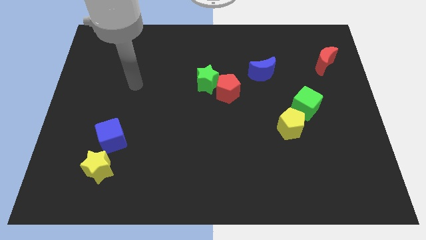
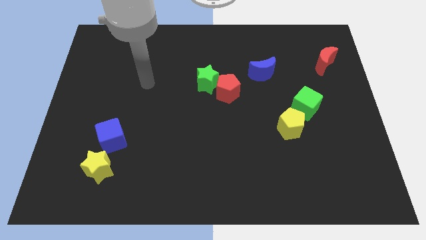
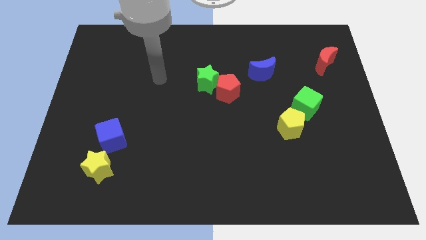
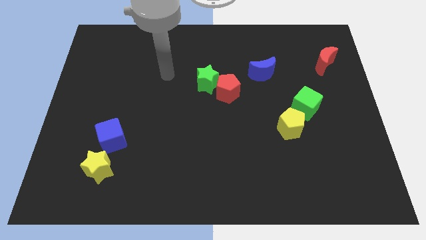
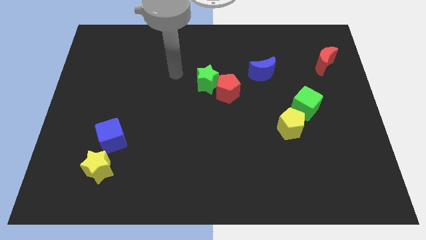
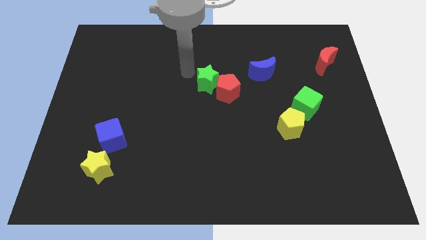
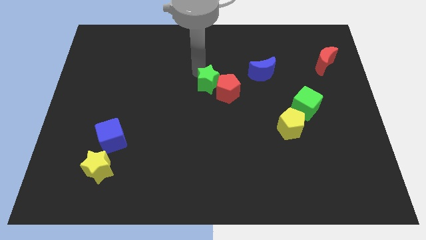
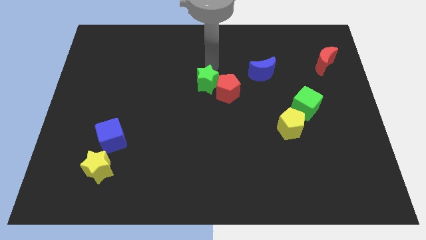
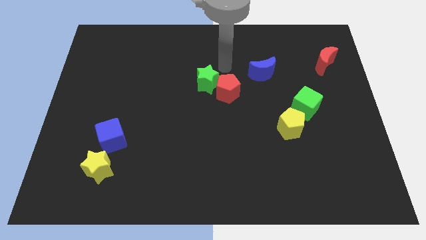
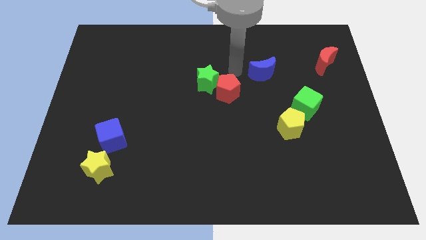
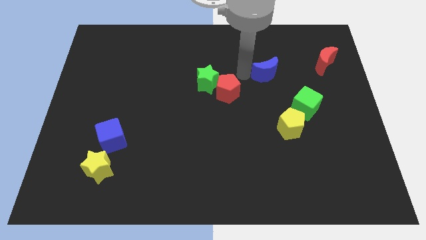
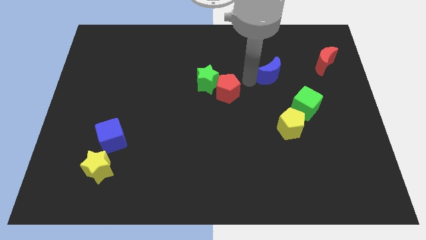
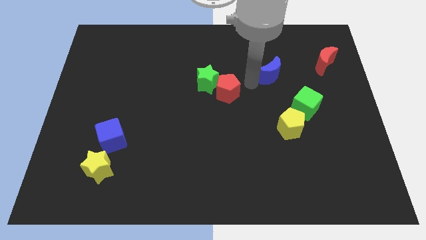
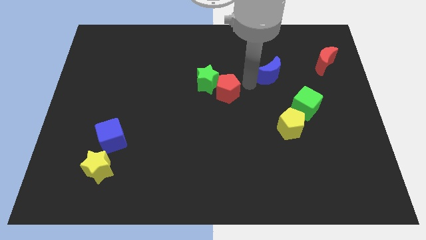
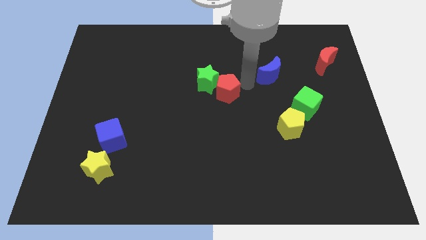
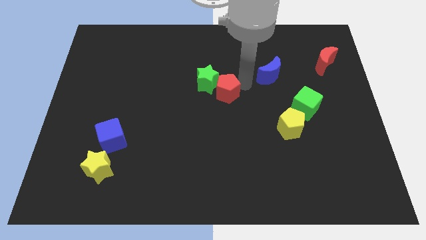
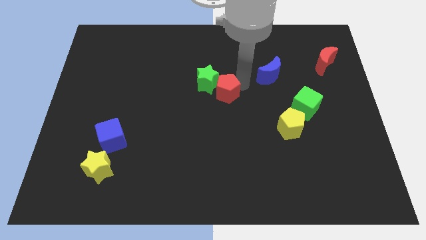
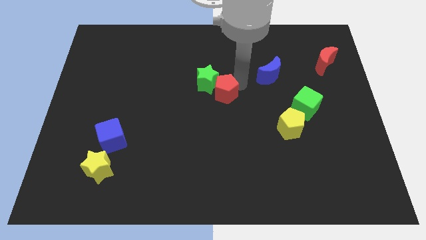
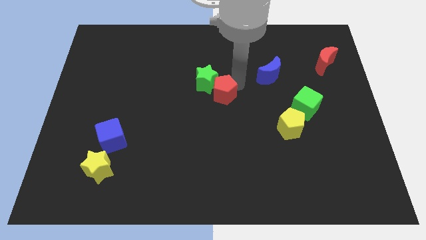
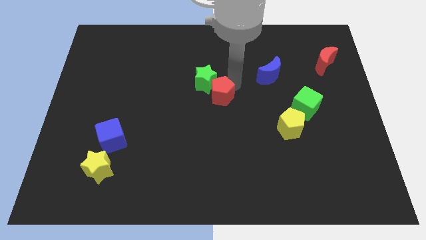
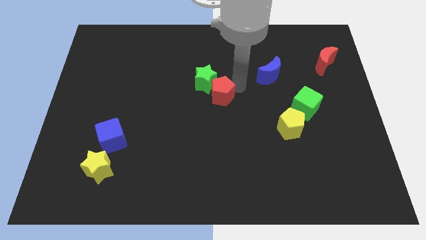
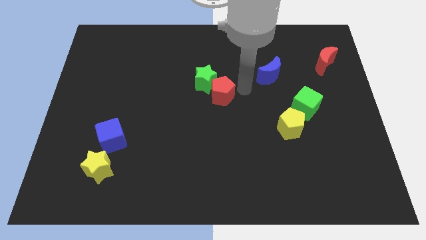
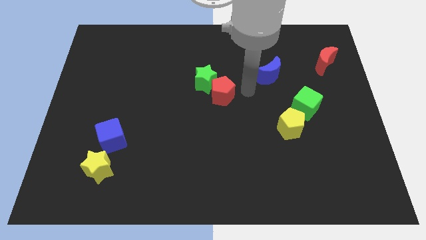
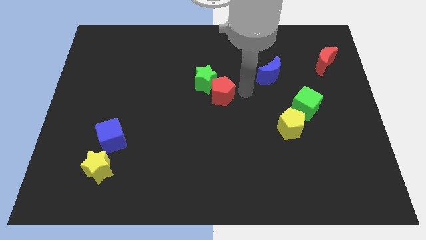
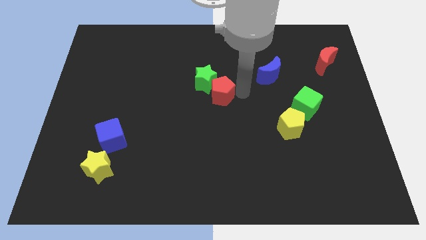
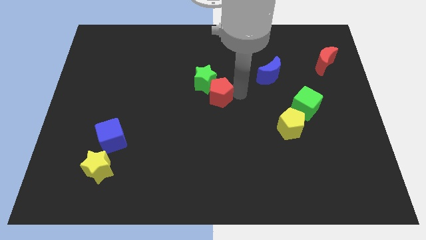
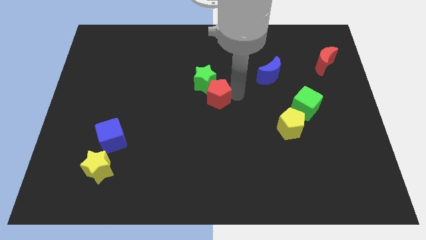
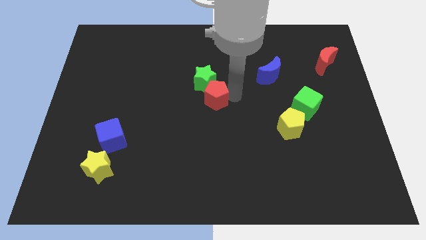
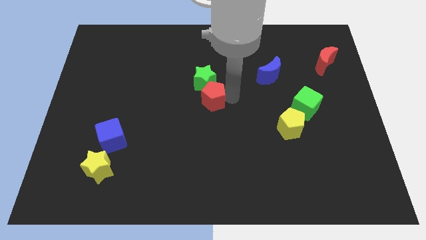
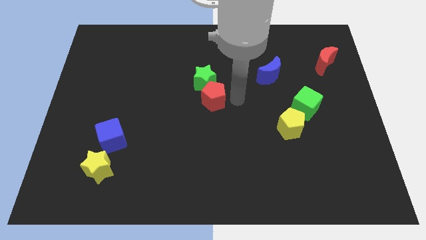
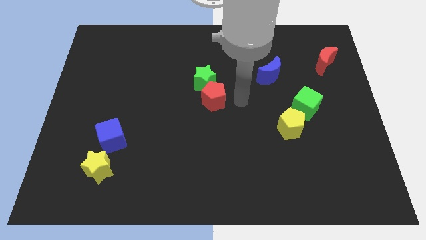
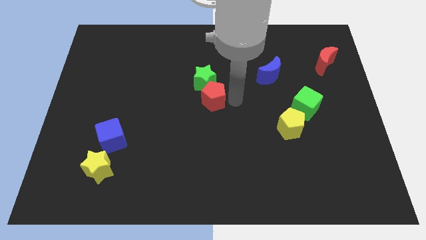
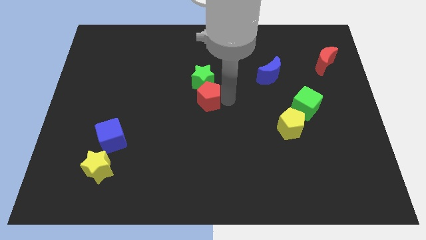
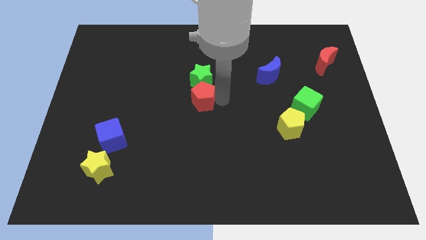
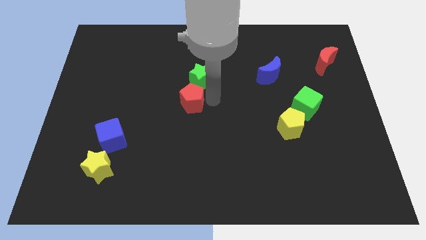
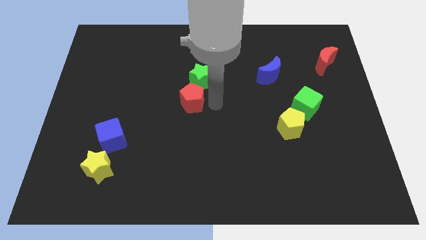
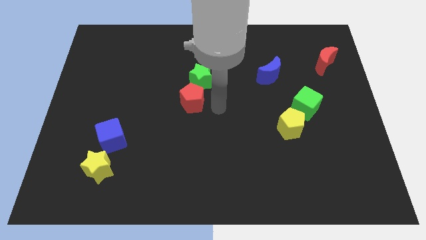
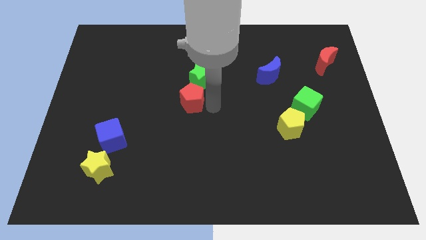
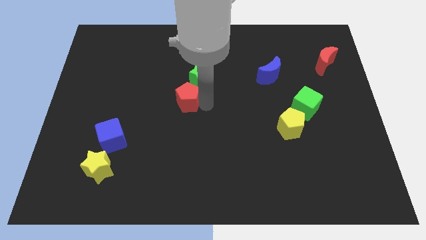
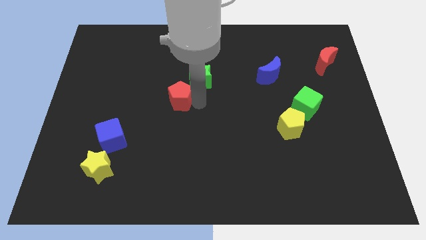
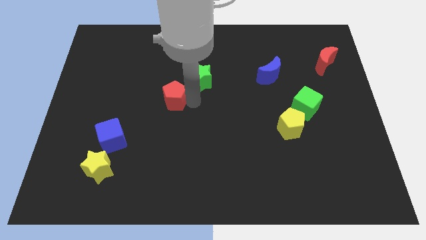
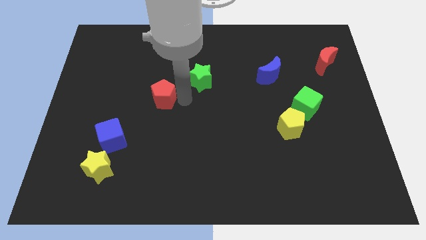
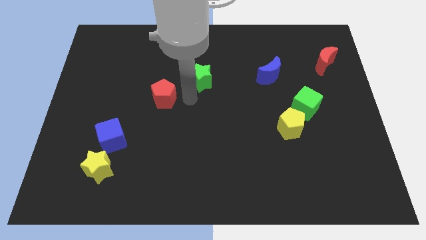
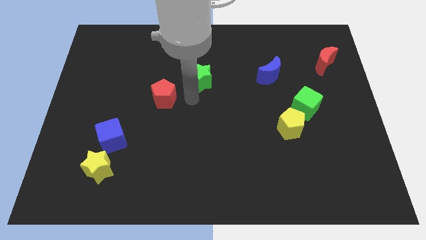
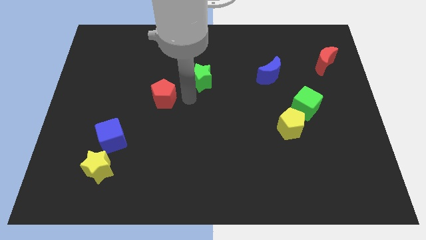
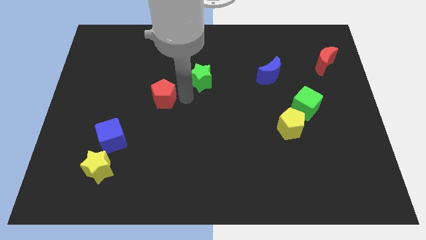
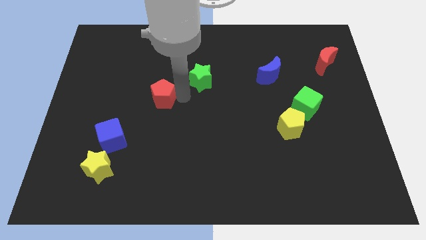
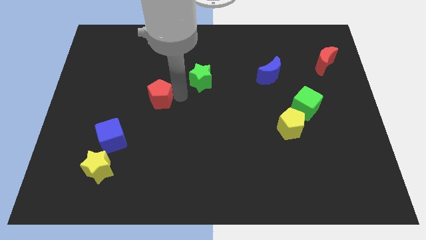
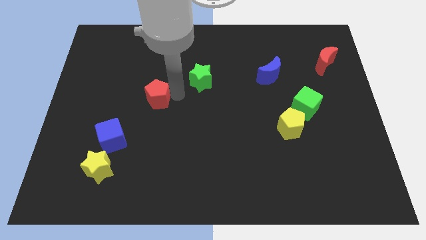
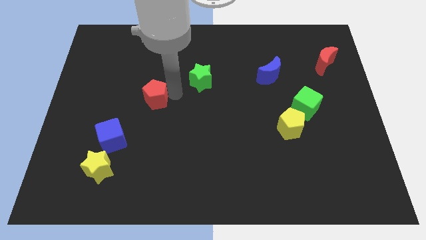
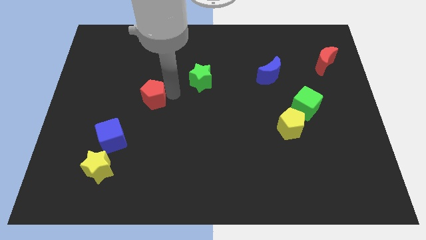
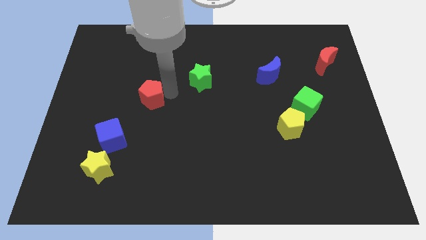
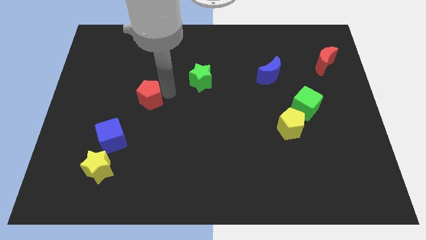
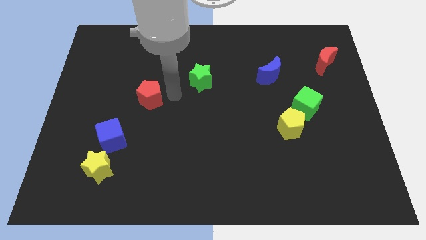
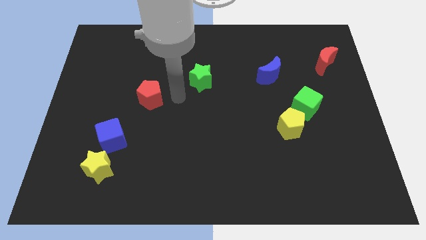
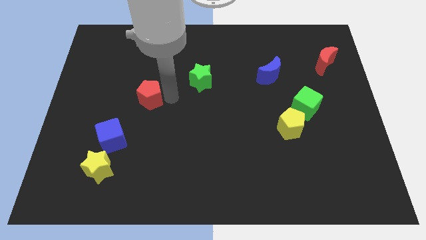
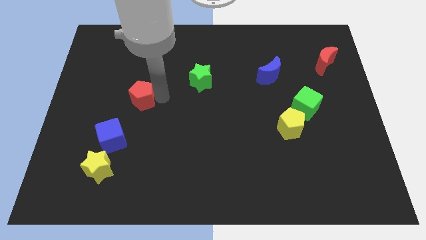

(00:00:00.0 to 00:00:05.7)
slide the red pentagon left

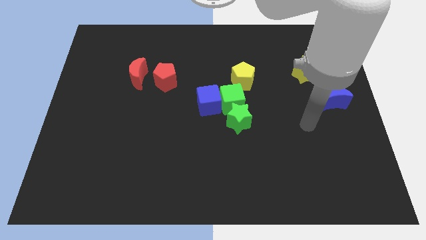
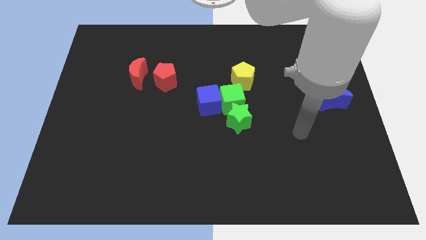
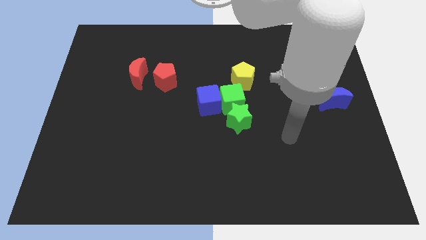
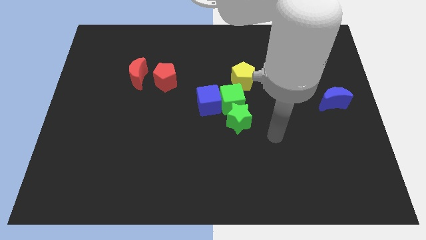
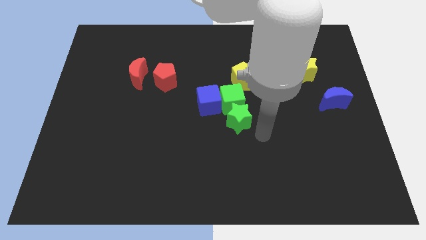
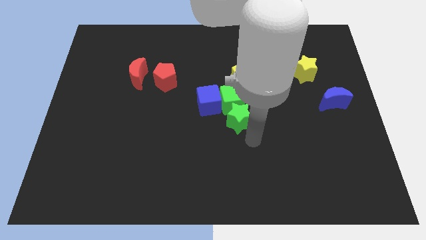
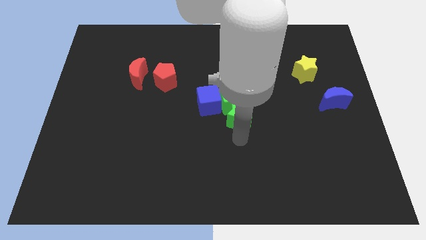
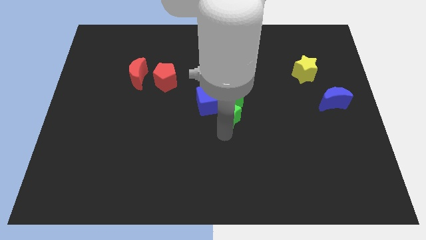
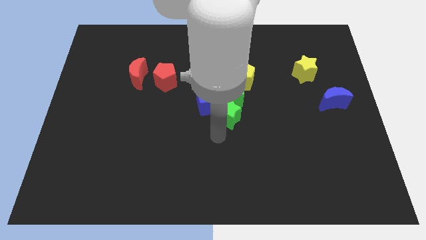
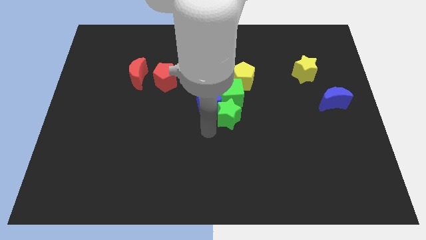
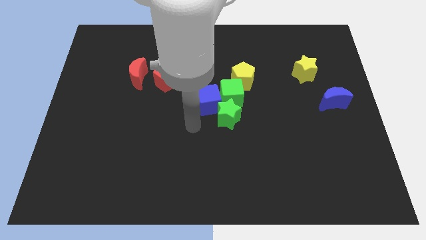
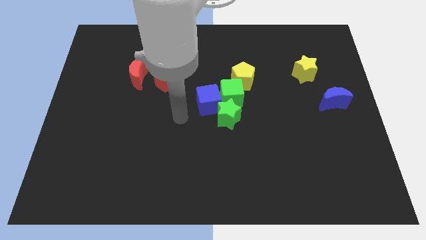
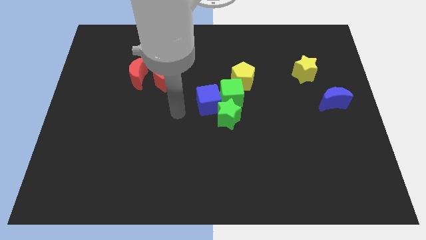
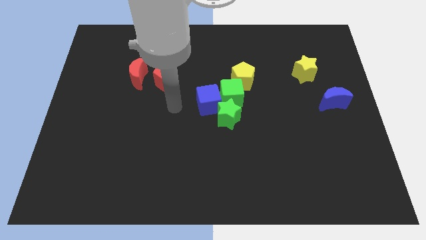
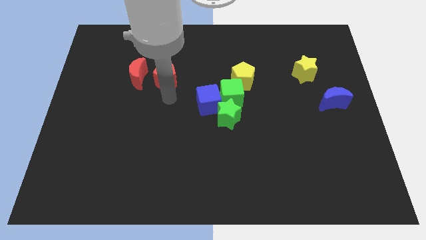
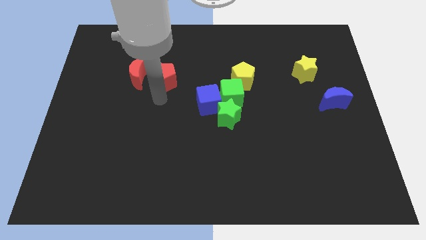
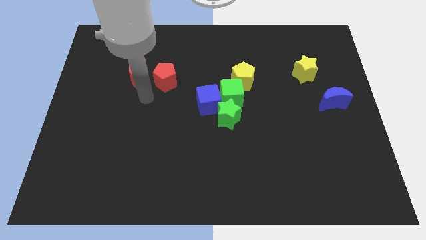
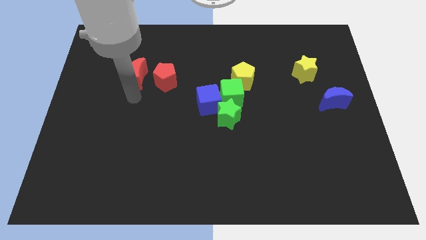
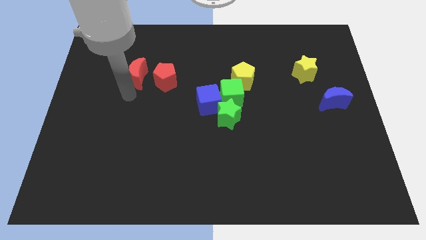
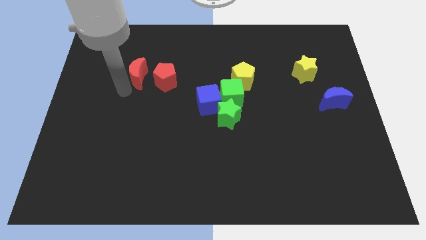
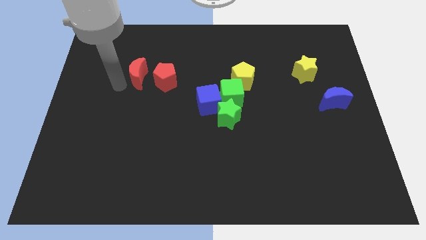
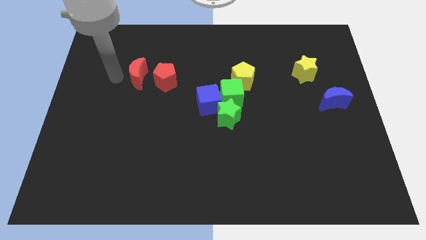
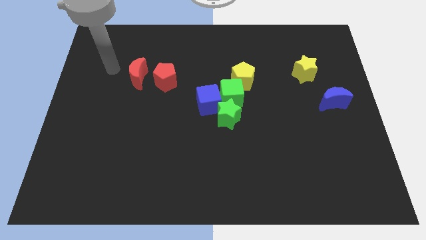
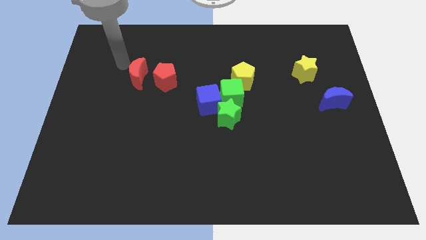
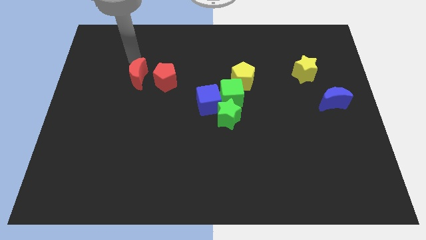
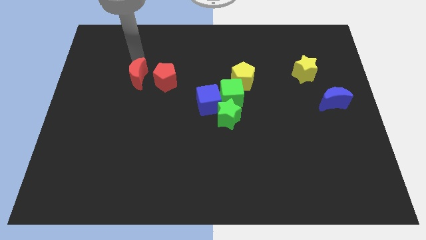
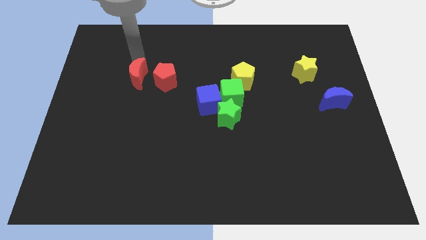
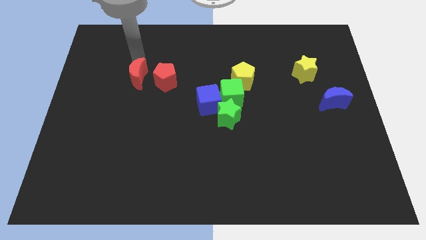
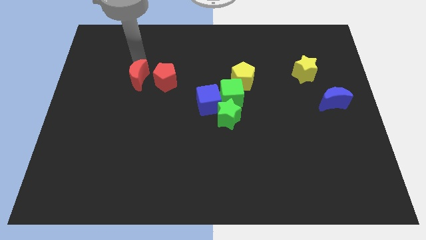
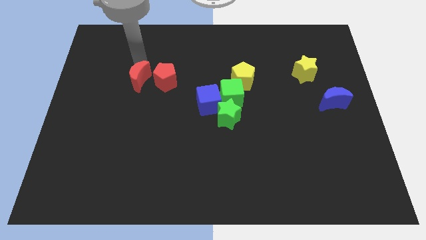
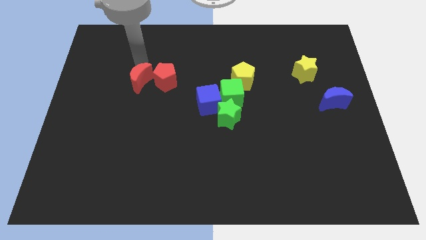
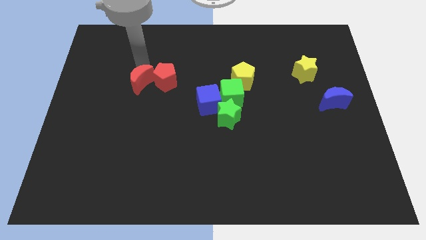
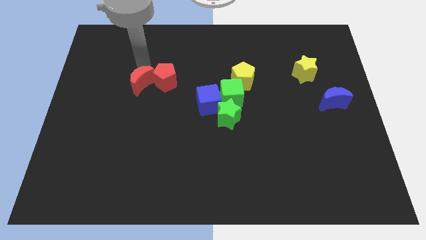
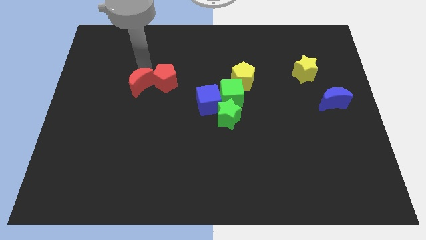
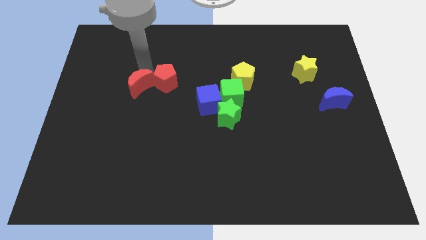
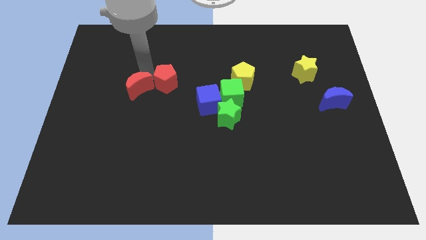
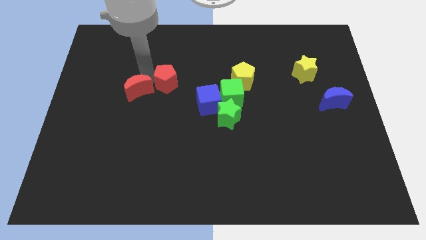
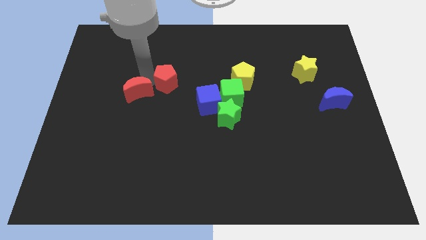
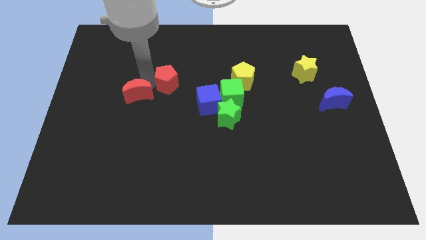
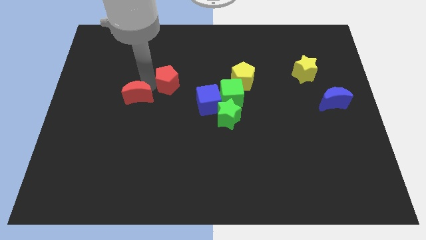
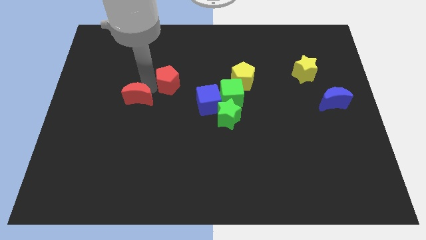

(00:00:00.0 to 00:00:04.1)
slide the red moon a bit down
